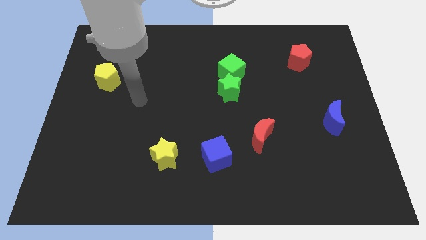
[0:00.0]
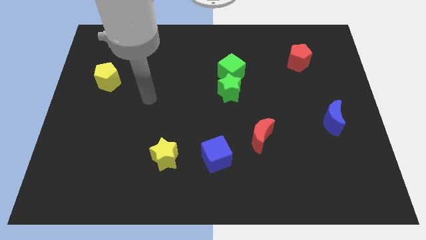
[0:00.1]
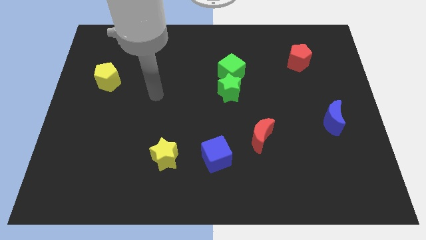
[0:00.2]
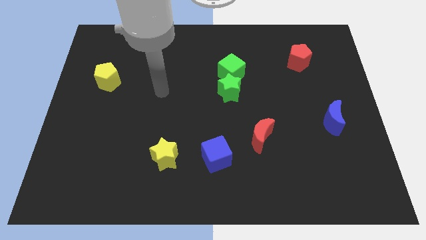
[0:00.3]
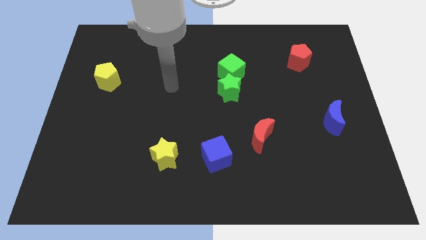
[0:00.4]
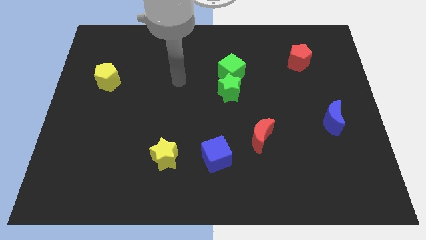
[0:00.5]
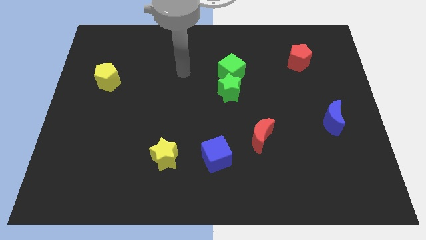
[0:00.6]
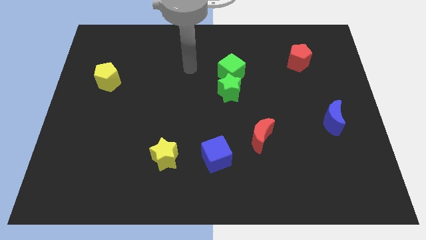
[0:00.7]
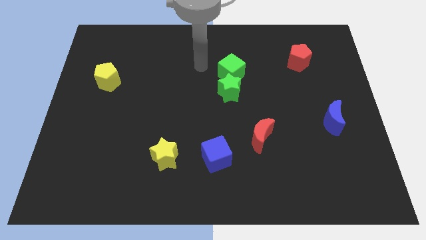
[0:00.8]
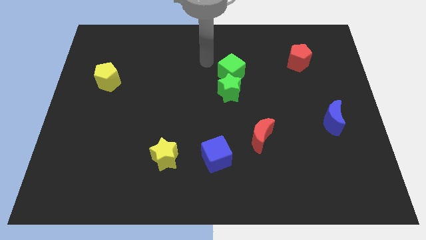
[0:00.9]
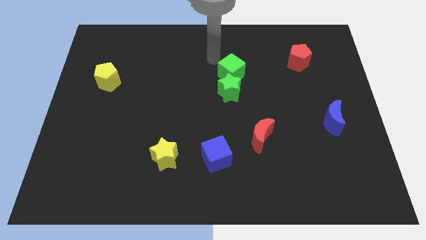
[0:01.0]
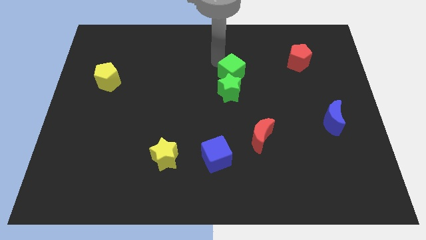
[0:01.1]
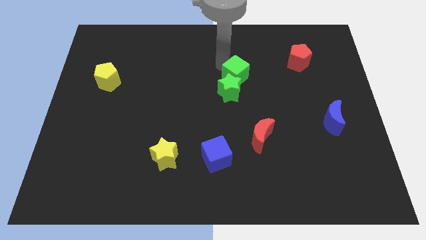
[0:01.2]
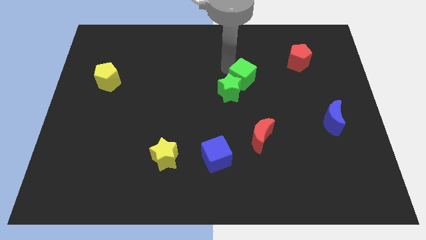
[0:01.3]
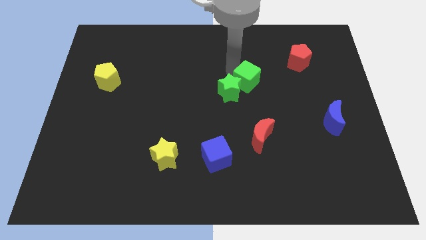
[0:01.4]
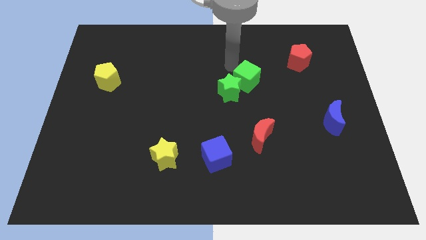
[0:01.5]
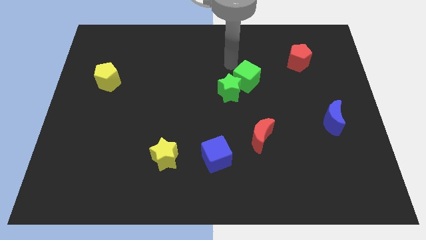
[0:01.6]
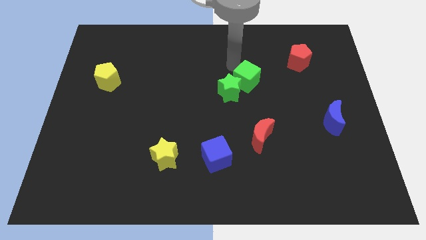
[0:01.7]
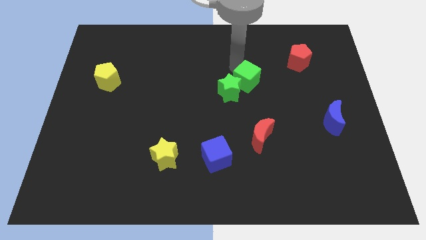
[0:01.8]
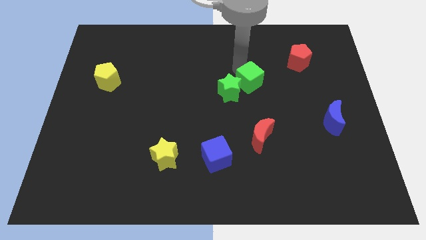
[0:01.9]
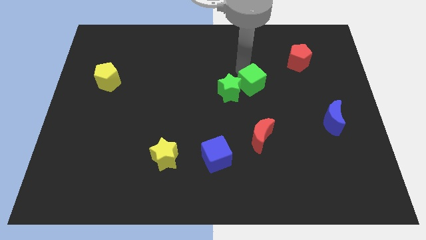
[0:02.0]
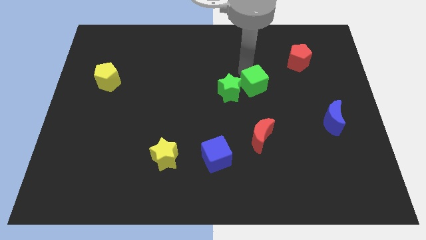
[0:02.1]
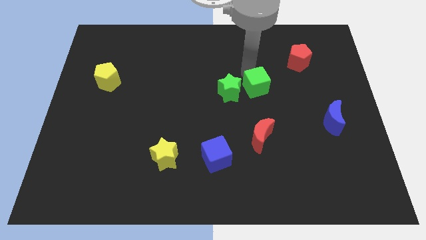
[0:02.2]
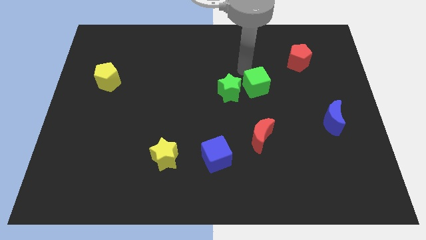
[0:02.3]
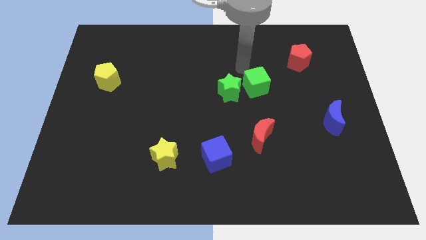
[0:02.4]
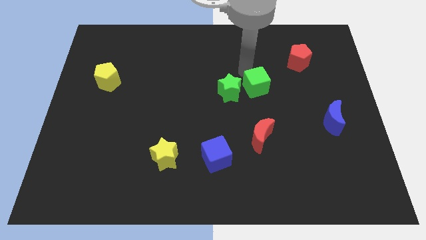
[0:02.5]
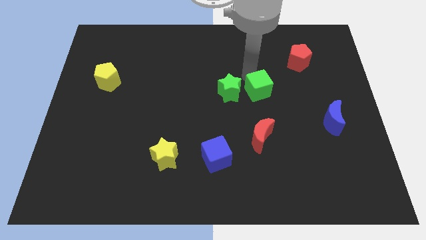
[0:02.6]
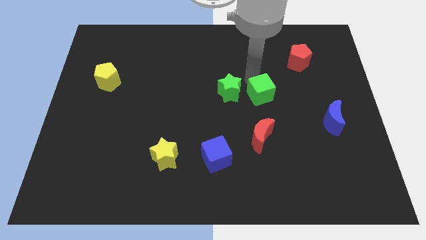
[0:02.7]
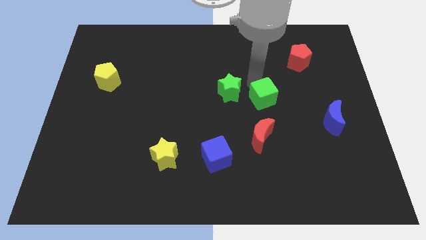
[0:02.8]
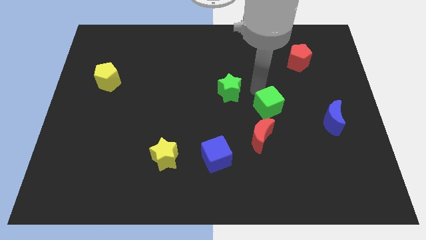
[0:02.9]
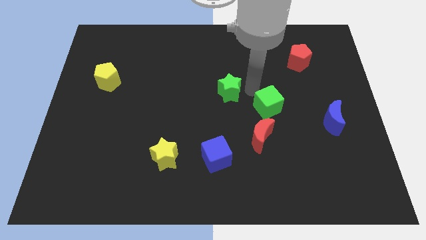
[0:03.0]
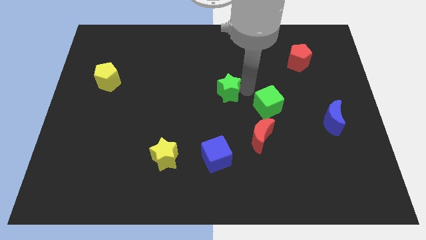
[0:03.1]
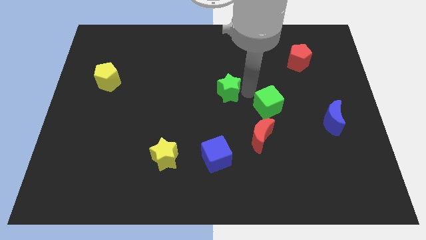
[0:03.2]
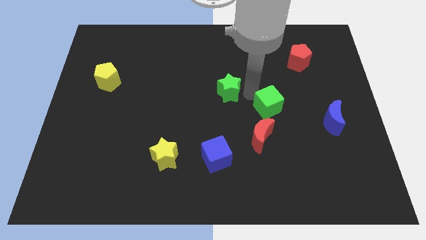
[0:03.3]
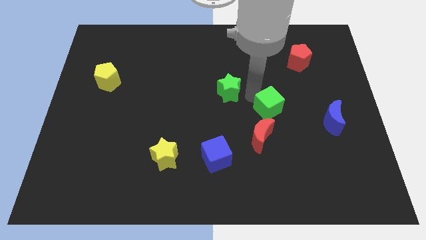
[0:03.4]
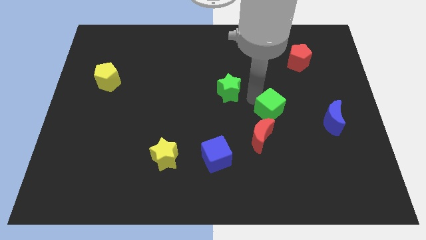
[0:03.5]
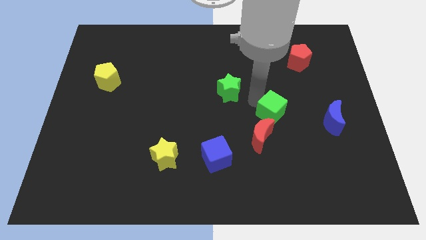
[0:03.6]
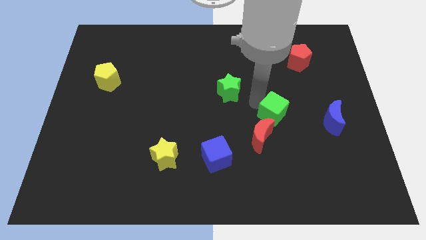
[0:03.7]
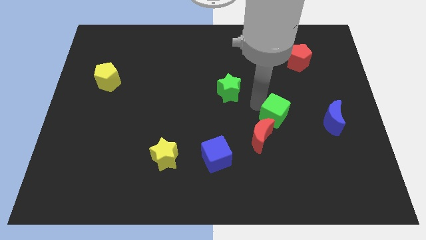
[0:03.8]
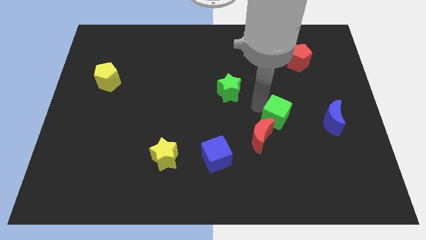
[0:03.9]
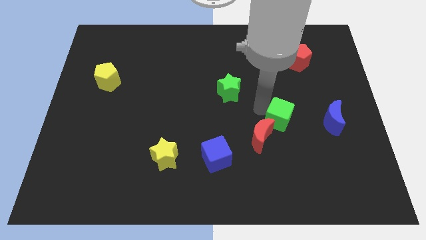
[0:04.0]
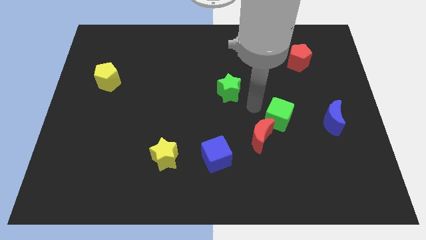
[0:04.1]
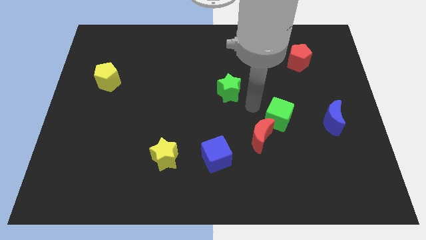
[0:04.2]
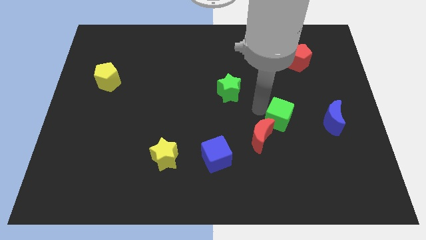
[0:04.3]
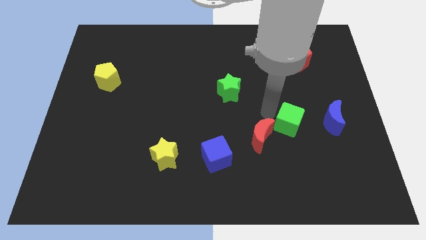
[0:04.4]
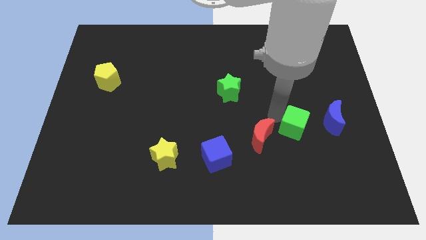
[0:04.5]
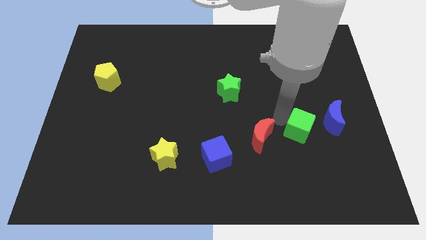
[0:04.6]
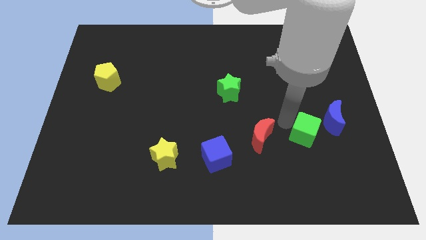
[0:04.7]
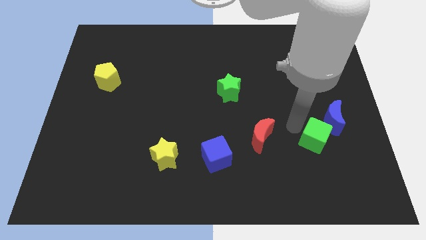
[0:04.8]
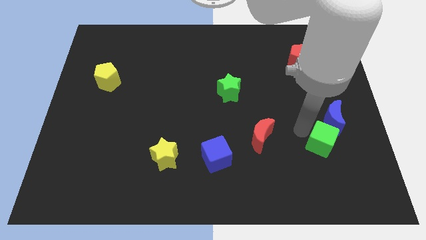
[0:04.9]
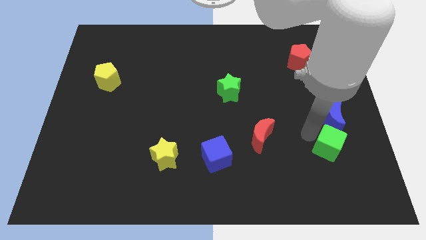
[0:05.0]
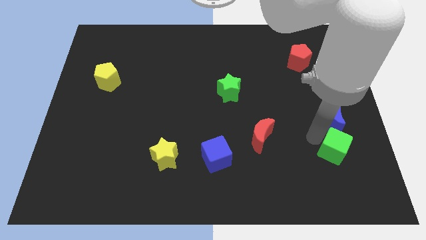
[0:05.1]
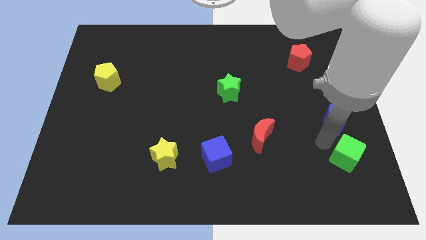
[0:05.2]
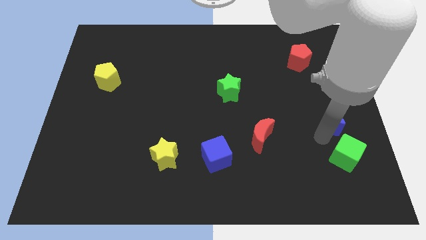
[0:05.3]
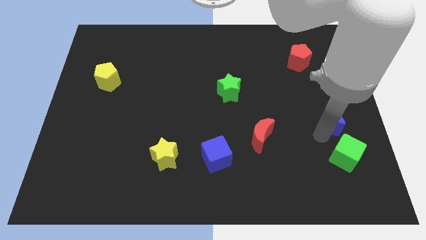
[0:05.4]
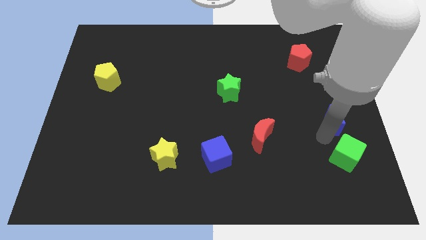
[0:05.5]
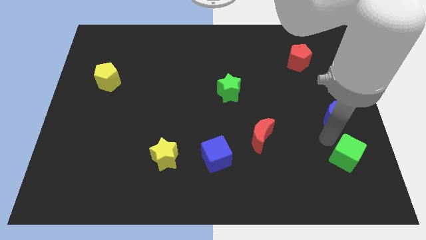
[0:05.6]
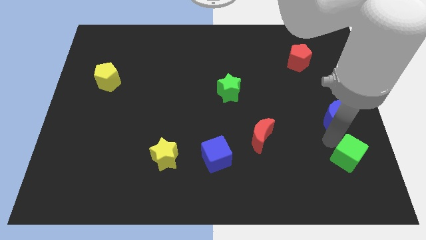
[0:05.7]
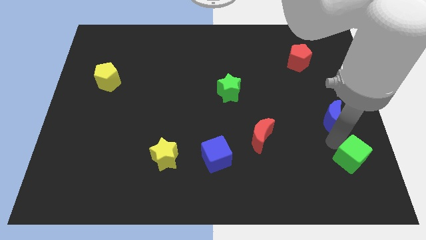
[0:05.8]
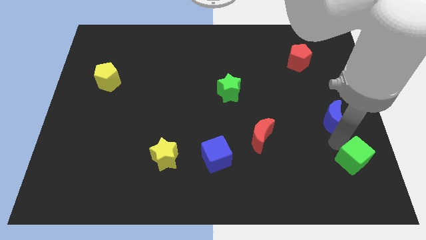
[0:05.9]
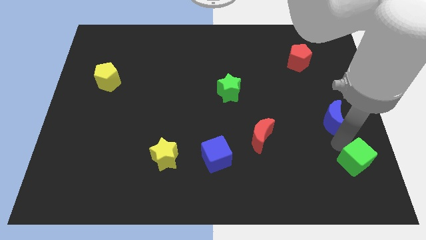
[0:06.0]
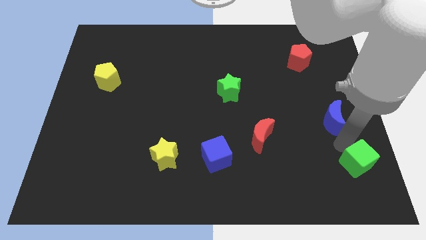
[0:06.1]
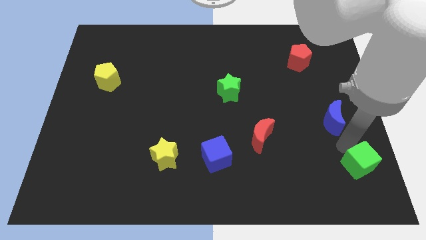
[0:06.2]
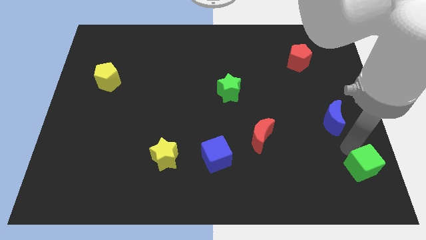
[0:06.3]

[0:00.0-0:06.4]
push the green cube to the bottom right
